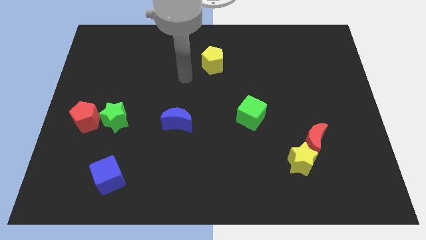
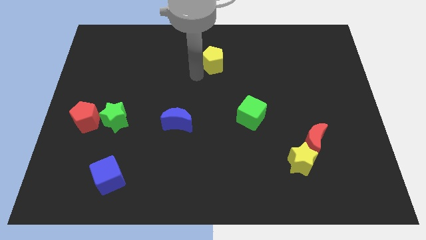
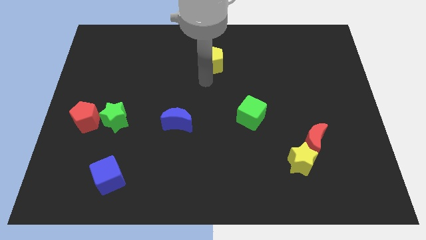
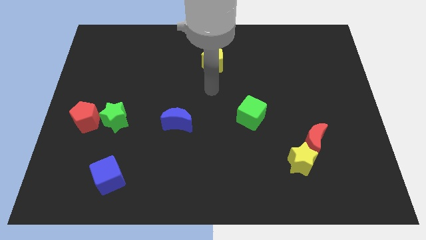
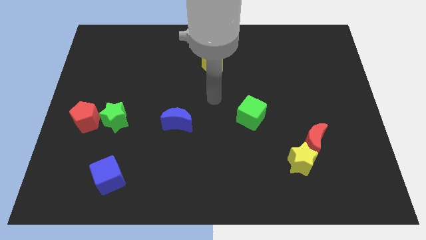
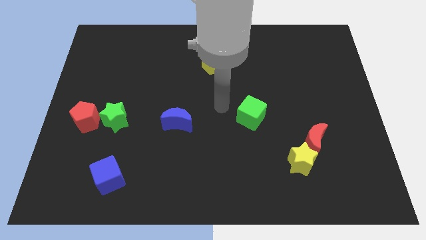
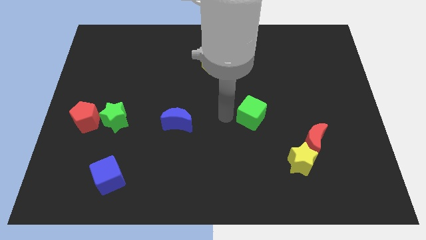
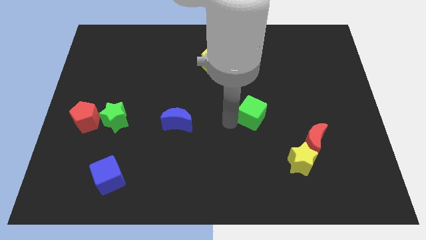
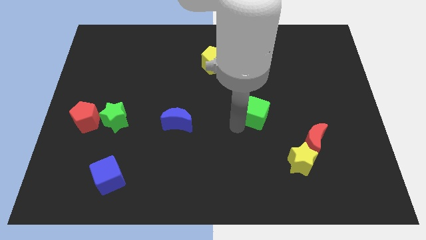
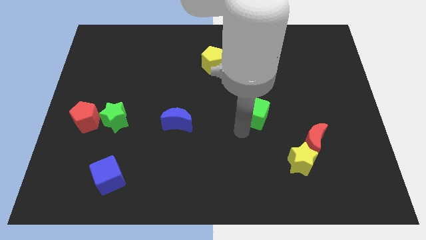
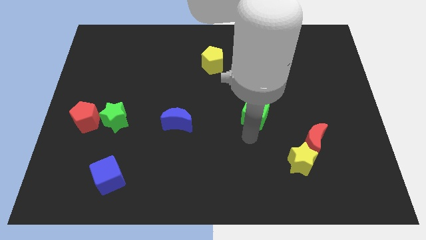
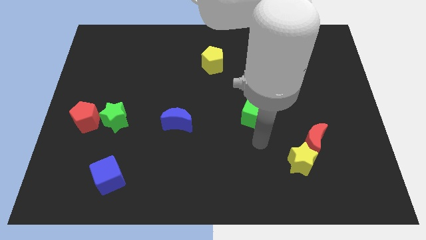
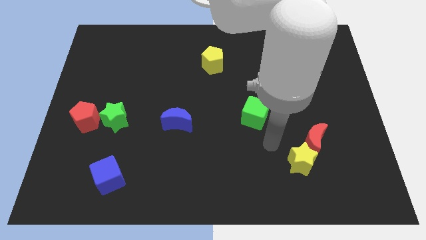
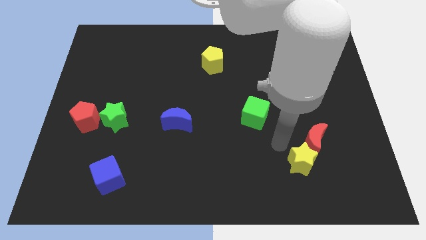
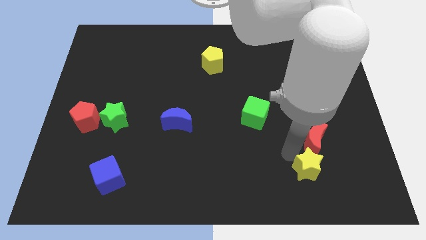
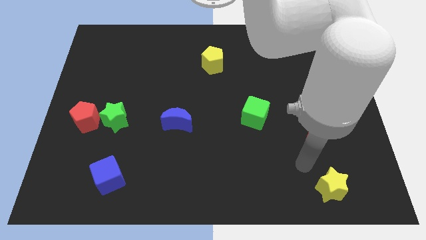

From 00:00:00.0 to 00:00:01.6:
separate the red moon from the yellow star

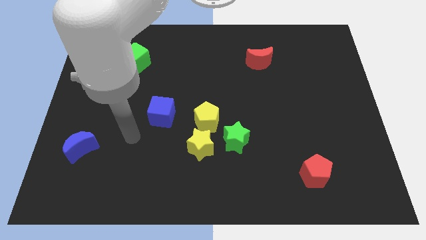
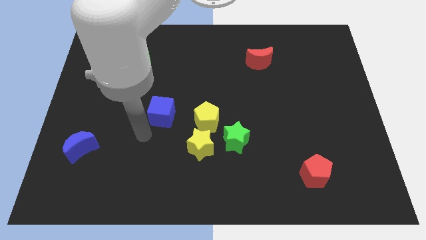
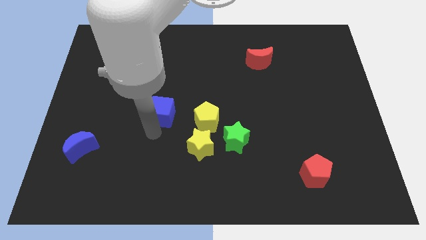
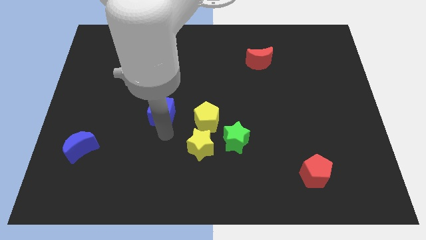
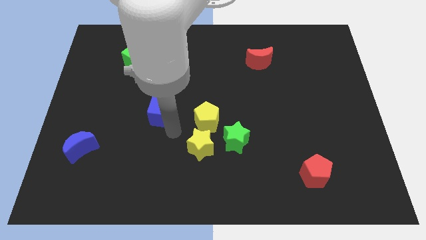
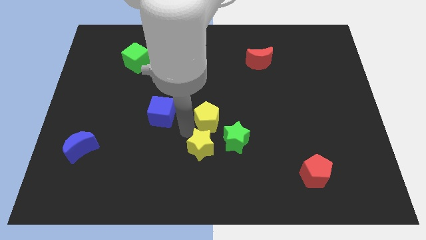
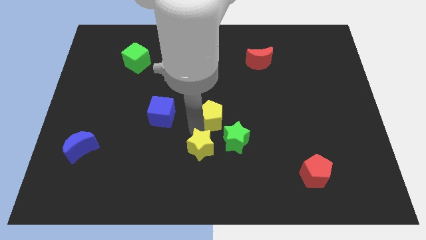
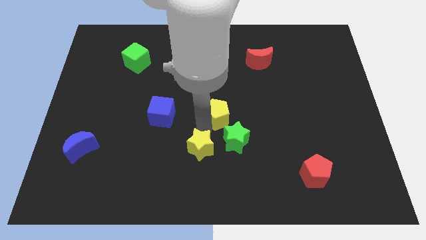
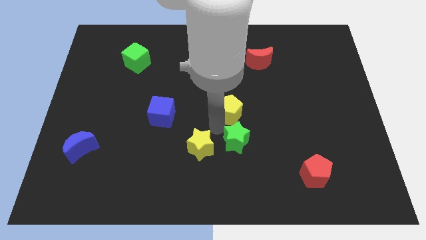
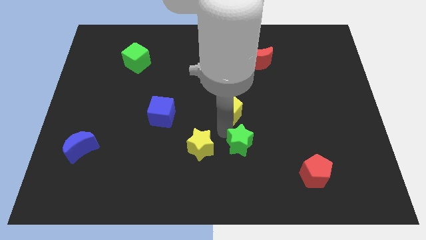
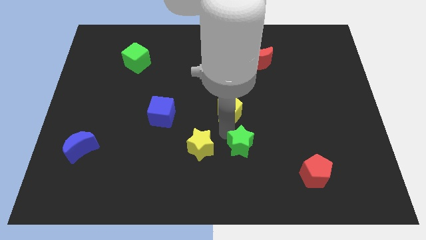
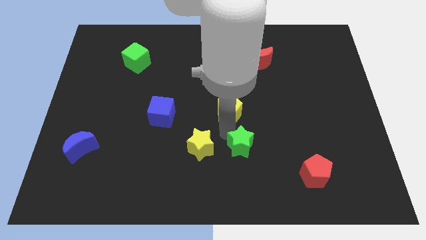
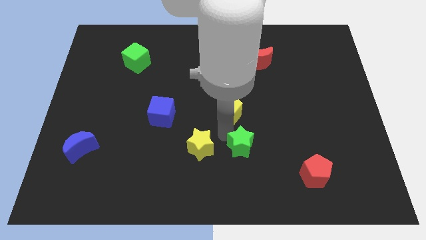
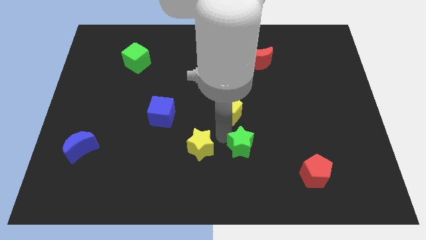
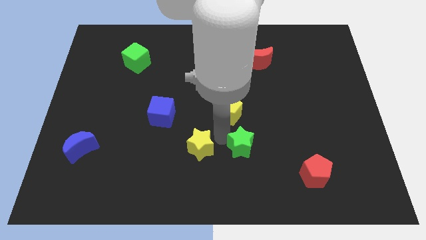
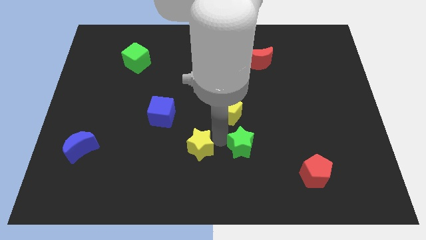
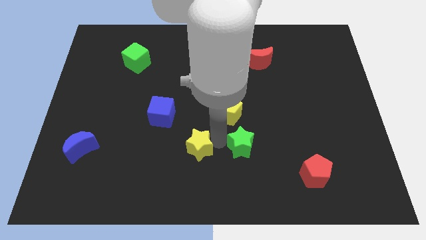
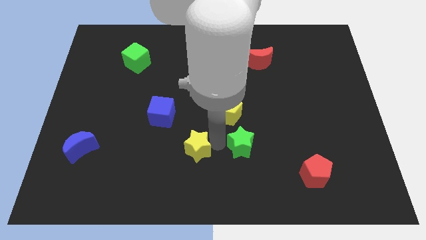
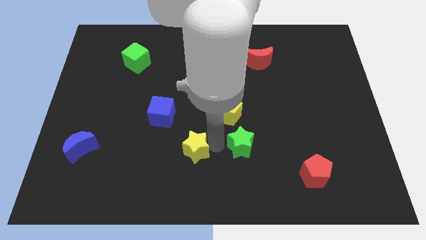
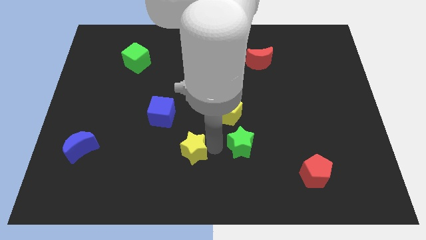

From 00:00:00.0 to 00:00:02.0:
separate the yellow star from the yellow pentagon and green star

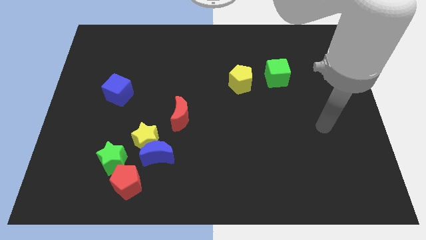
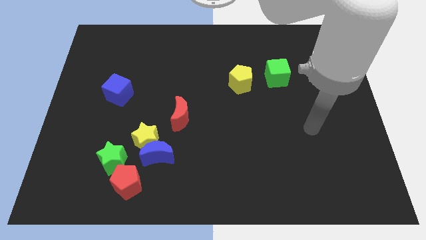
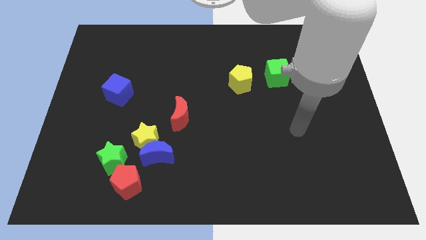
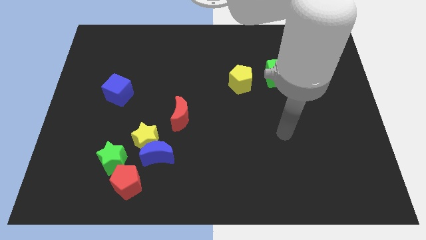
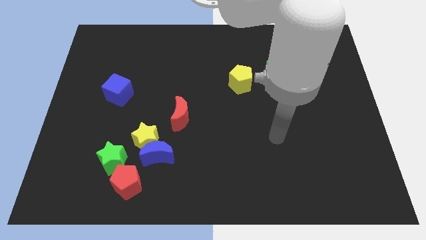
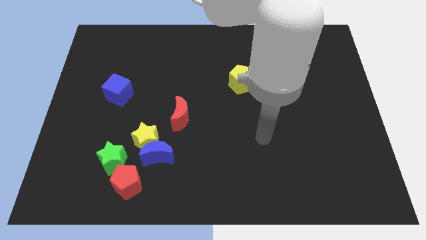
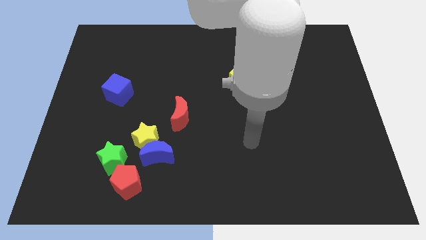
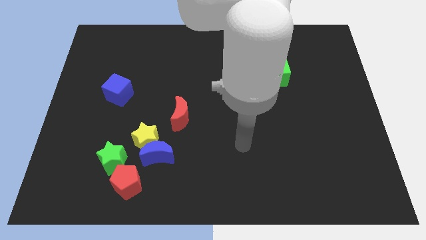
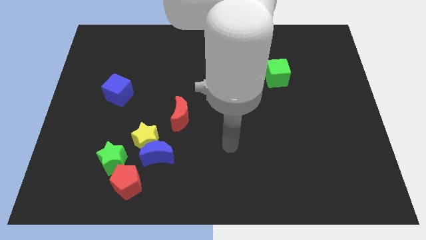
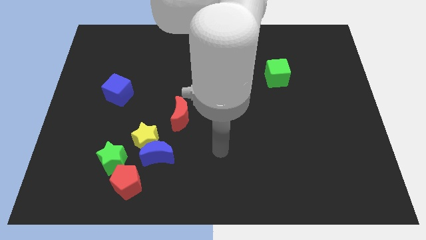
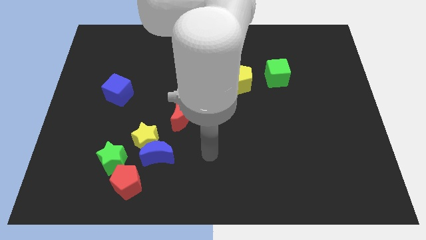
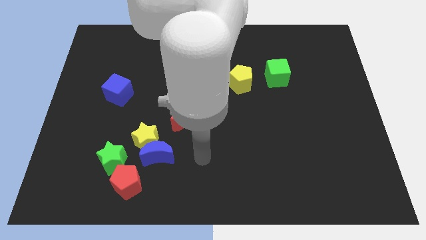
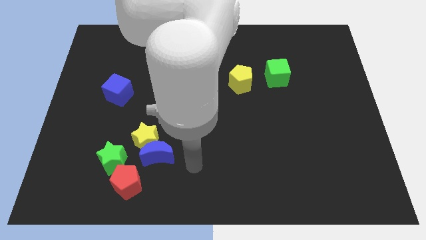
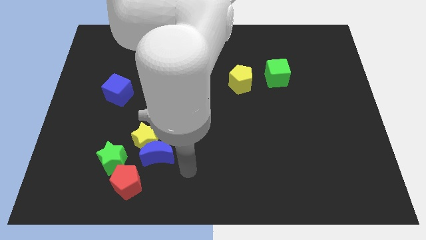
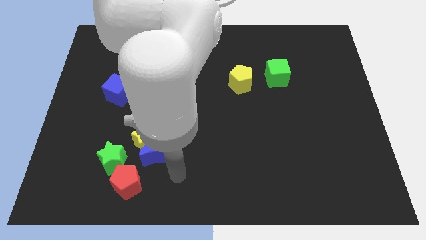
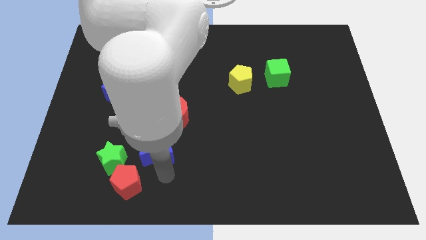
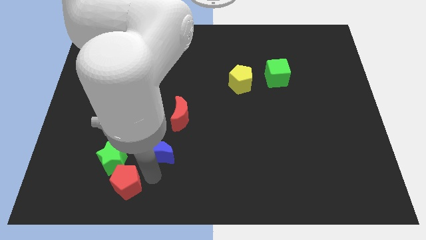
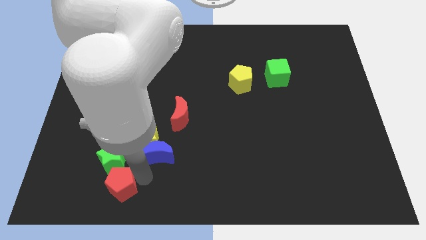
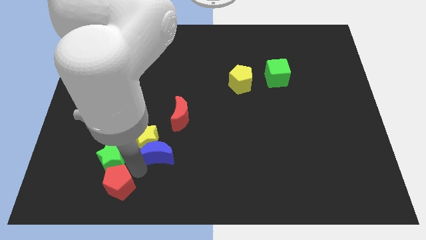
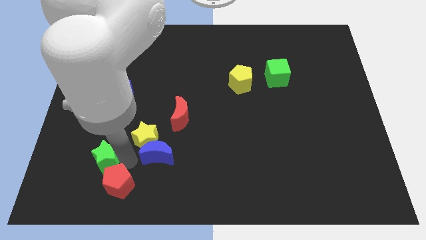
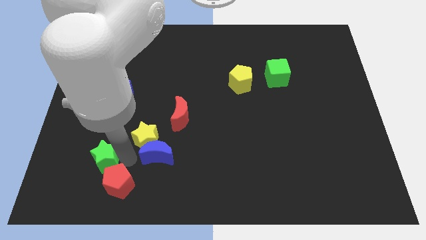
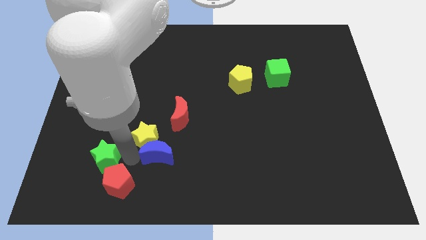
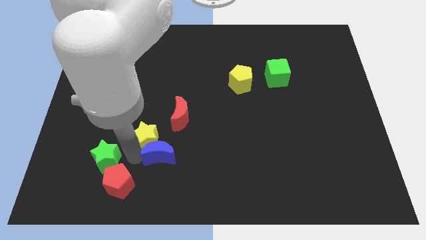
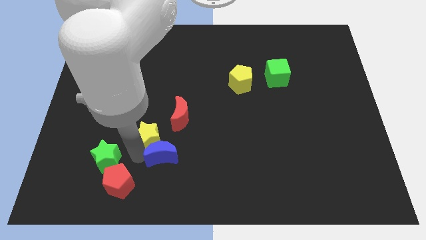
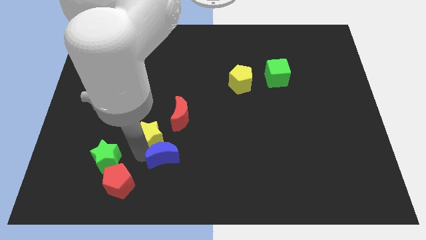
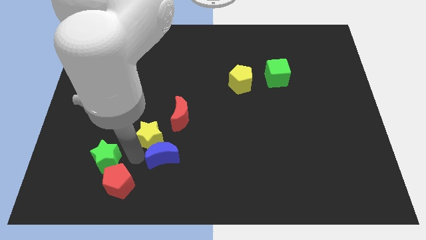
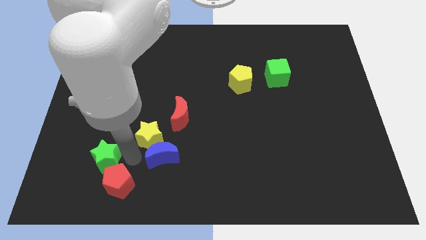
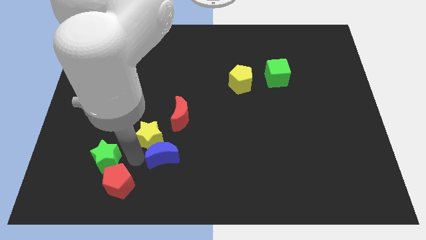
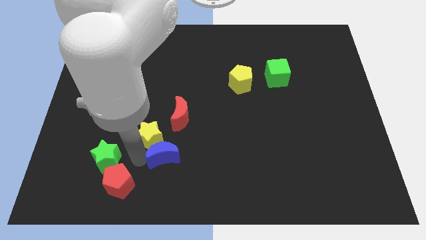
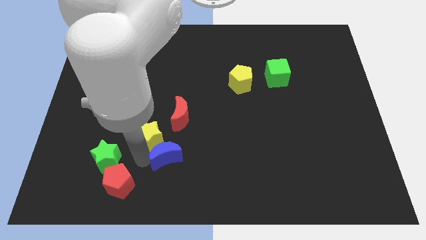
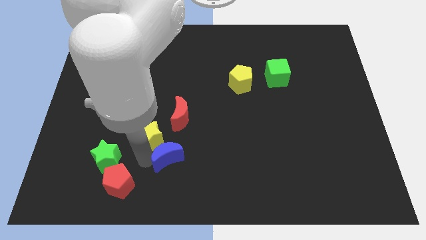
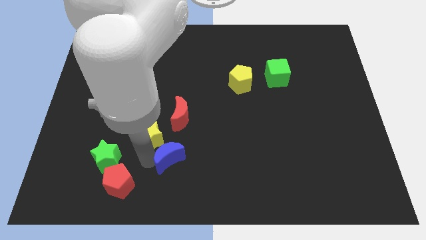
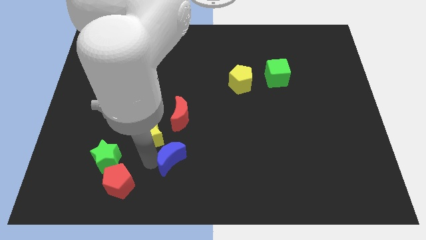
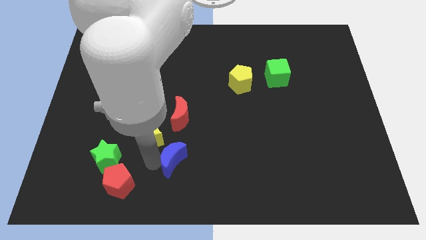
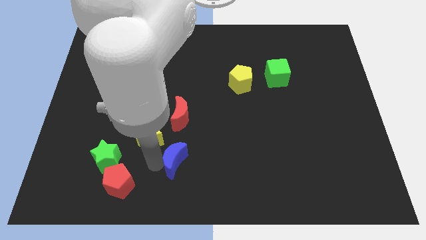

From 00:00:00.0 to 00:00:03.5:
separate the blue moon from the clump

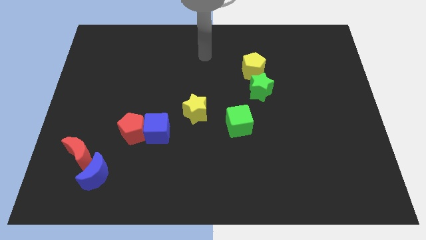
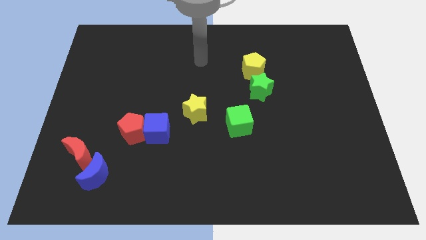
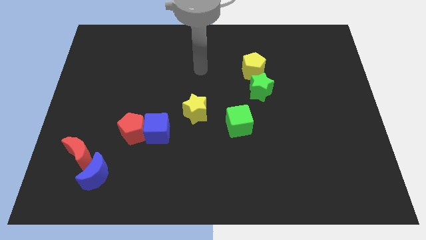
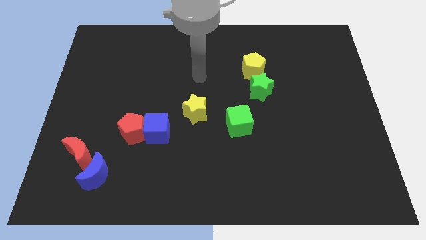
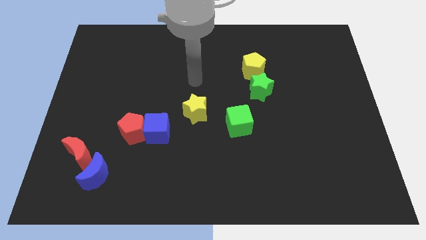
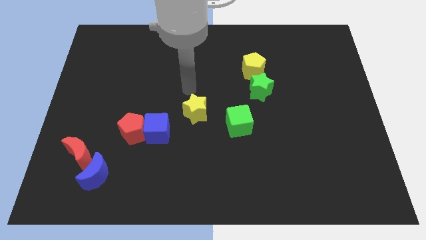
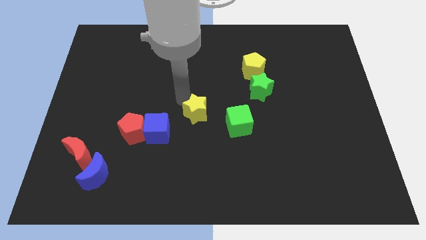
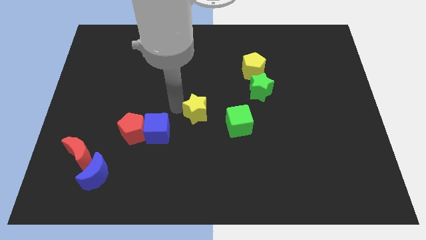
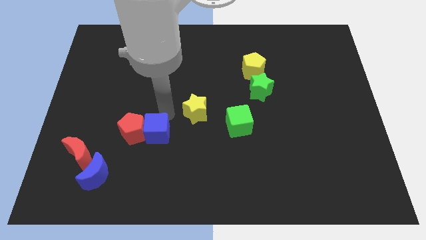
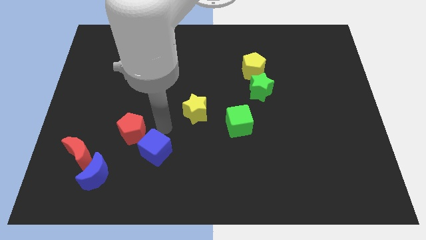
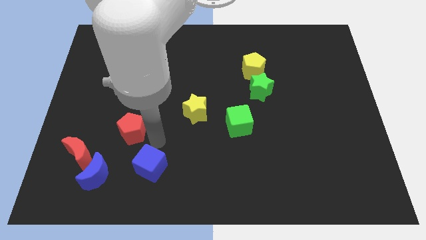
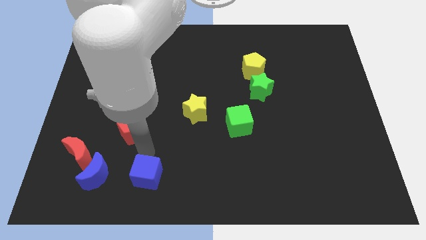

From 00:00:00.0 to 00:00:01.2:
move the red pentagon away from the blue cube

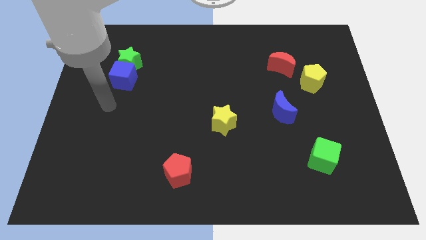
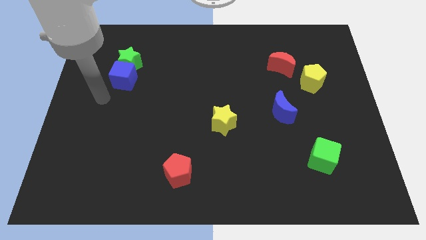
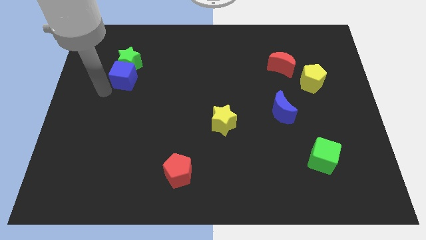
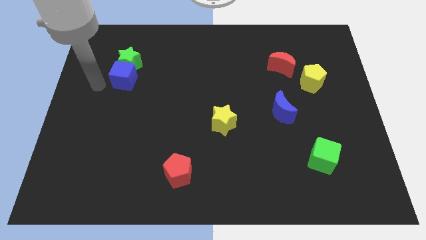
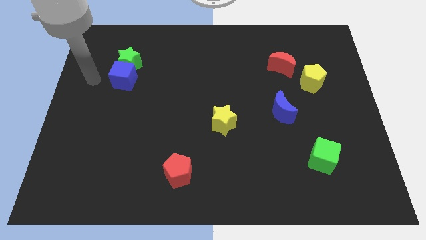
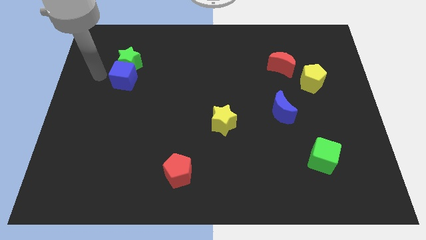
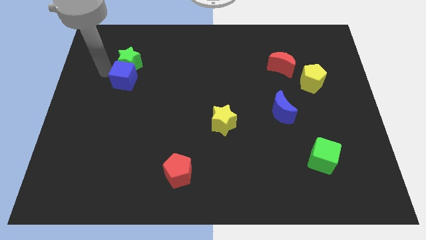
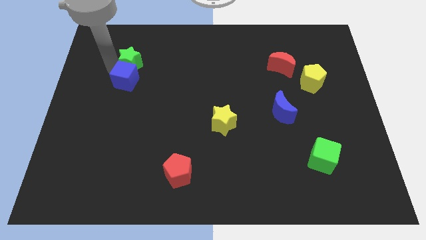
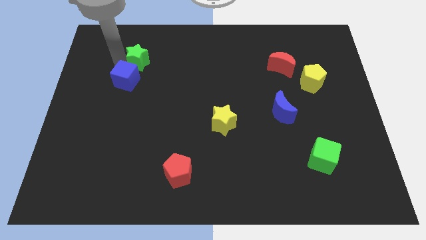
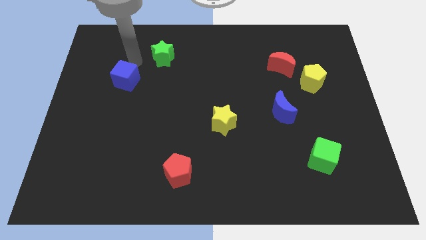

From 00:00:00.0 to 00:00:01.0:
pull the blue cube apart from the green star
